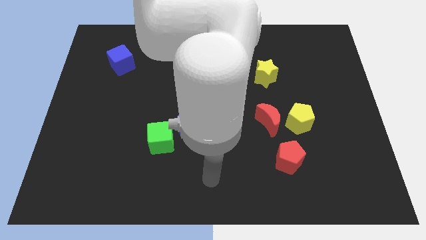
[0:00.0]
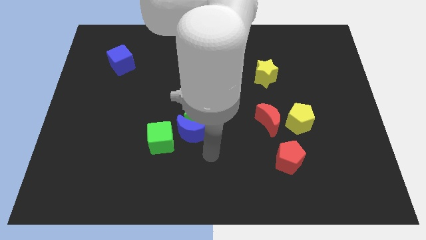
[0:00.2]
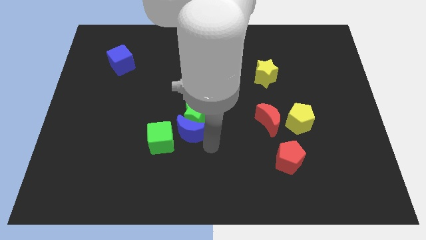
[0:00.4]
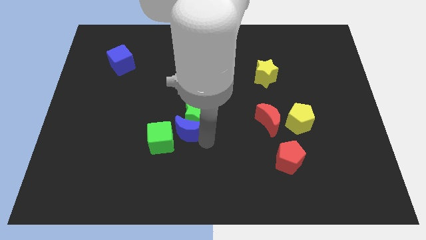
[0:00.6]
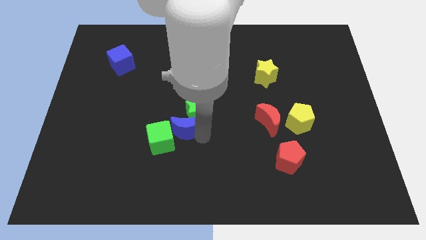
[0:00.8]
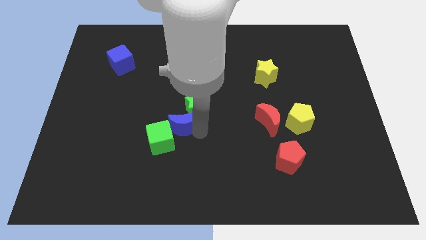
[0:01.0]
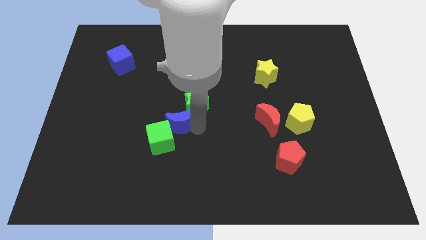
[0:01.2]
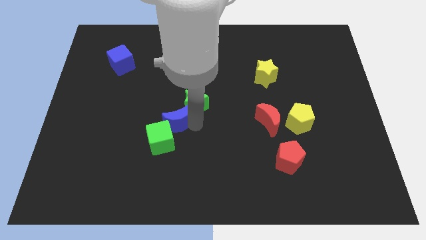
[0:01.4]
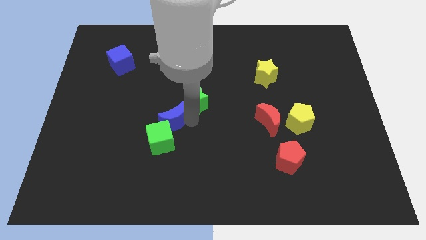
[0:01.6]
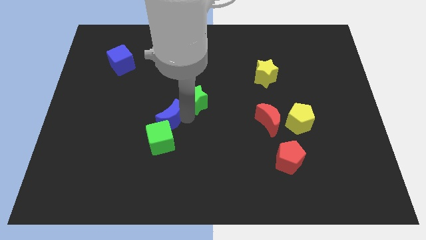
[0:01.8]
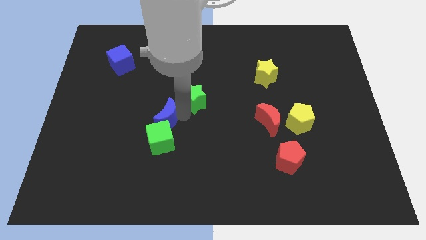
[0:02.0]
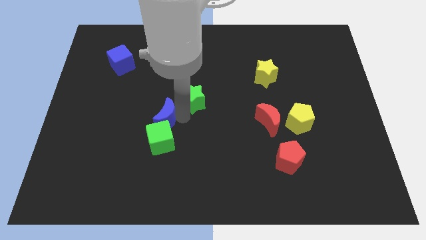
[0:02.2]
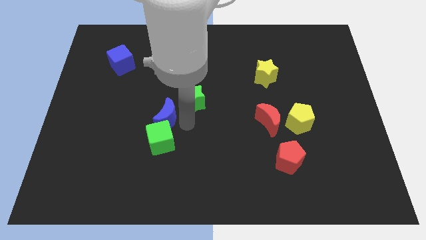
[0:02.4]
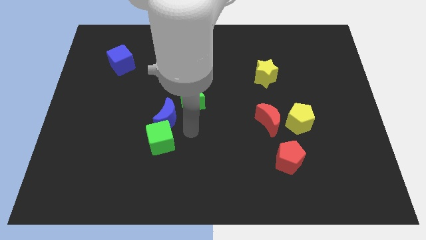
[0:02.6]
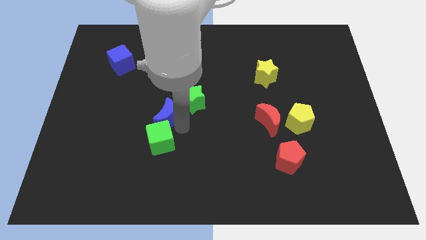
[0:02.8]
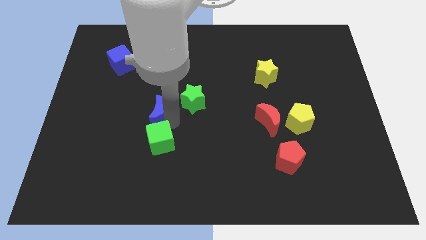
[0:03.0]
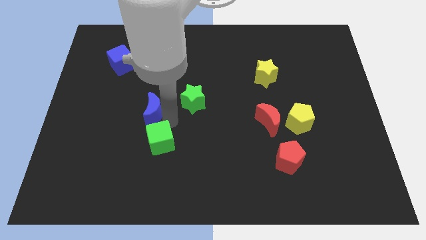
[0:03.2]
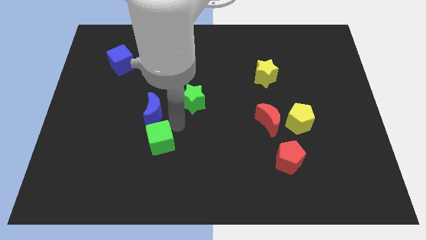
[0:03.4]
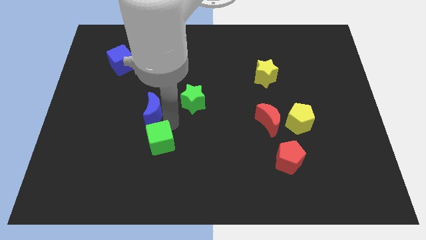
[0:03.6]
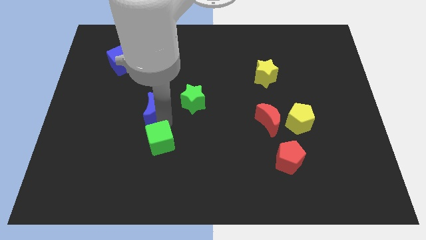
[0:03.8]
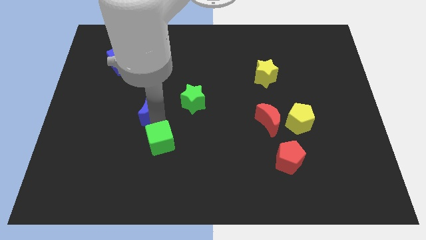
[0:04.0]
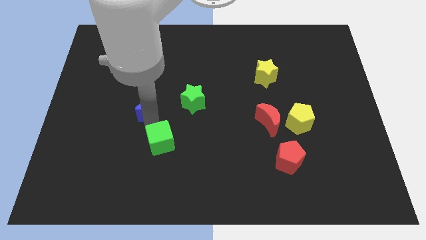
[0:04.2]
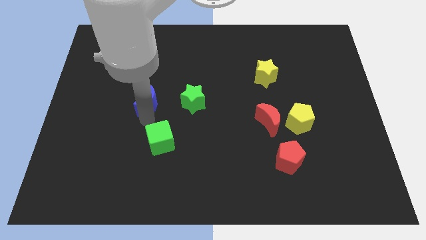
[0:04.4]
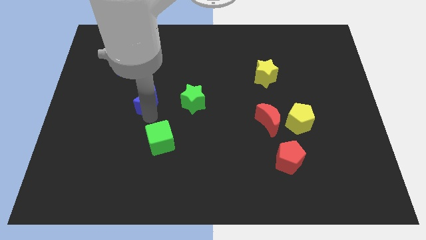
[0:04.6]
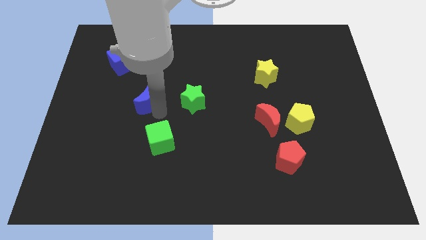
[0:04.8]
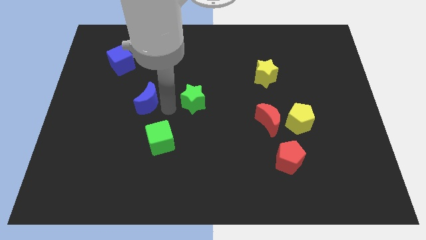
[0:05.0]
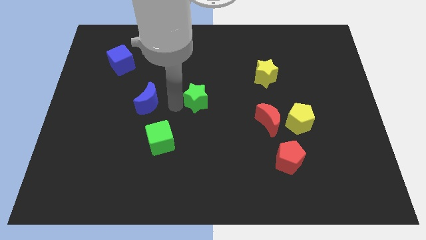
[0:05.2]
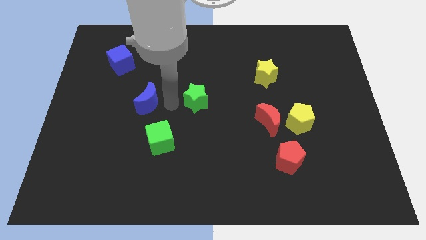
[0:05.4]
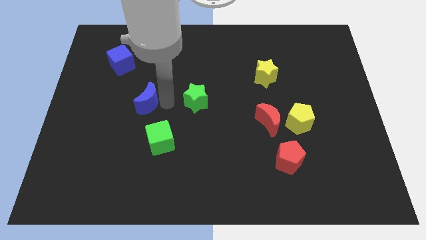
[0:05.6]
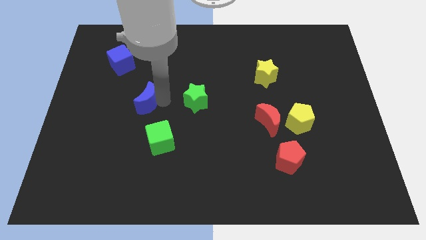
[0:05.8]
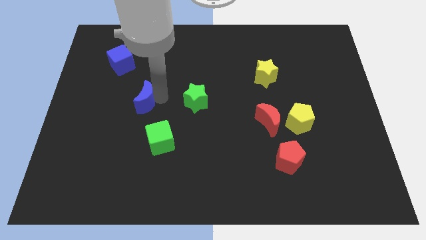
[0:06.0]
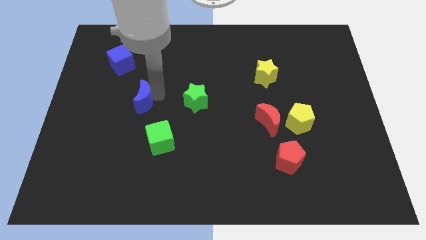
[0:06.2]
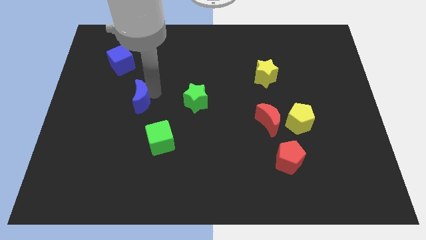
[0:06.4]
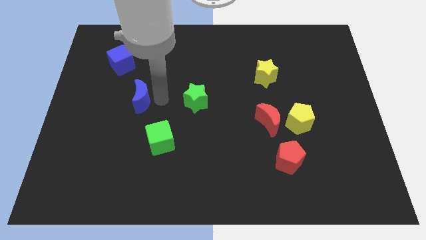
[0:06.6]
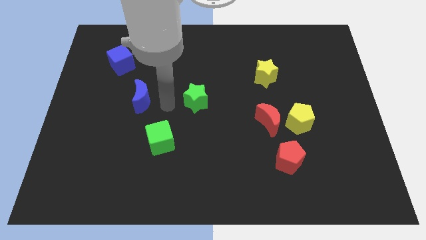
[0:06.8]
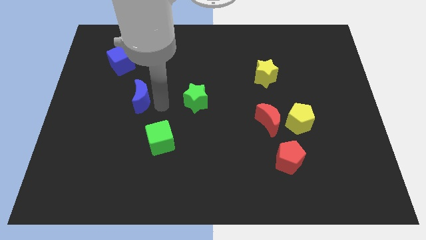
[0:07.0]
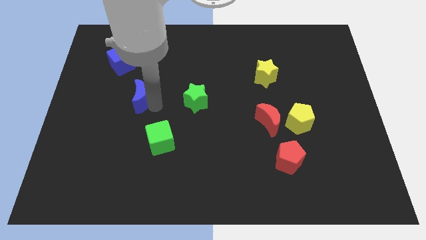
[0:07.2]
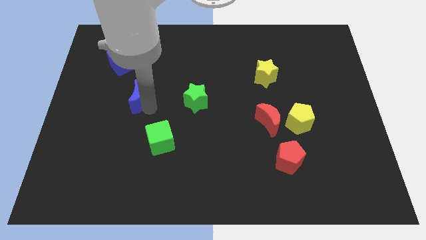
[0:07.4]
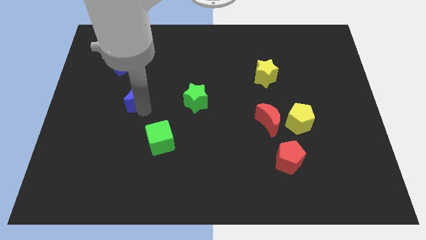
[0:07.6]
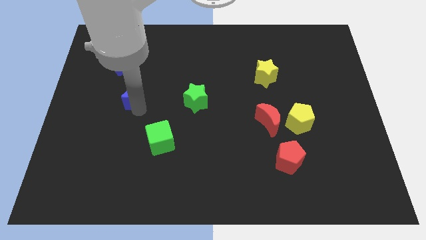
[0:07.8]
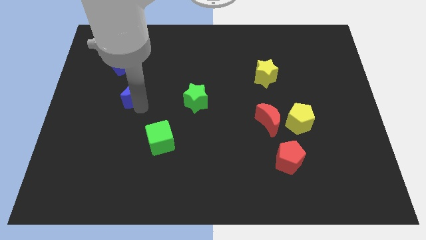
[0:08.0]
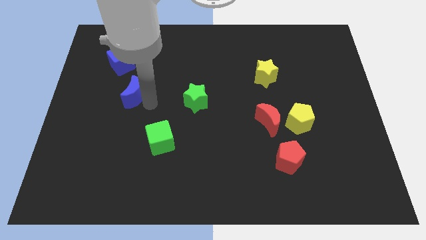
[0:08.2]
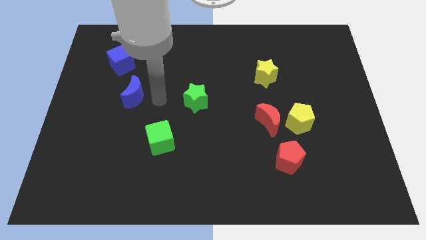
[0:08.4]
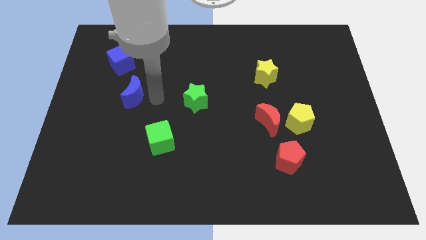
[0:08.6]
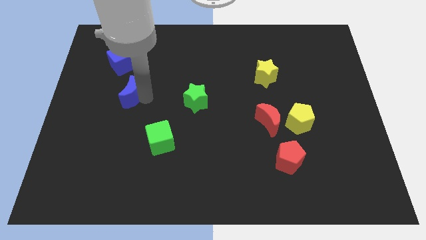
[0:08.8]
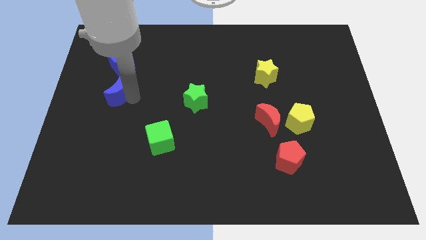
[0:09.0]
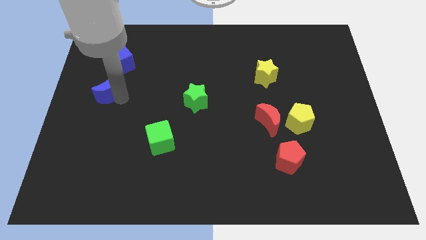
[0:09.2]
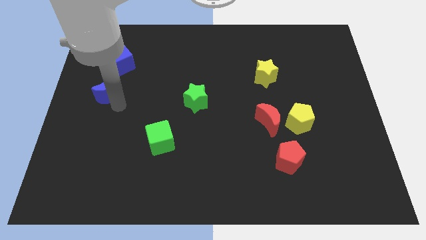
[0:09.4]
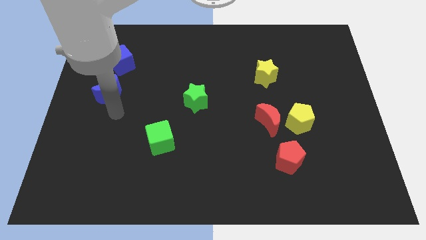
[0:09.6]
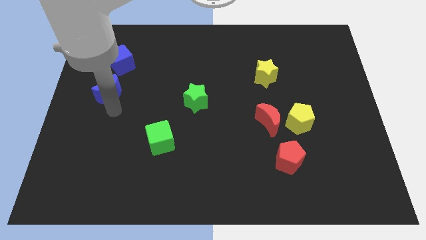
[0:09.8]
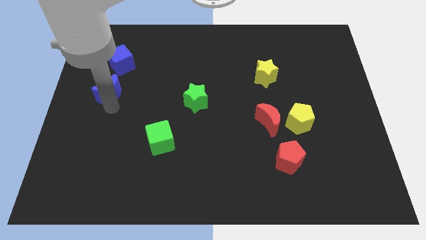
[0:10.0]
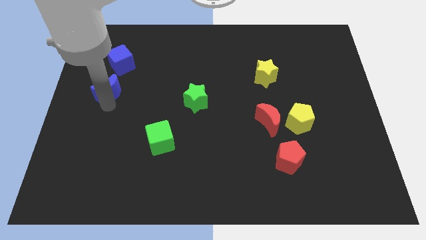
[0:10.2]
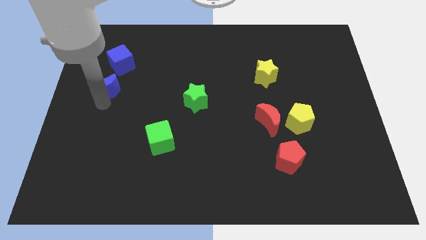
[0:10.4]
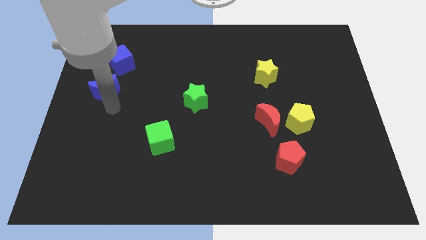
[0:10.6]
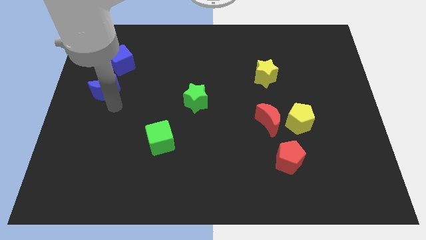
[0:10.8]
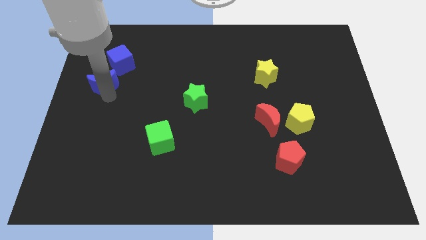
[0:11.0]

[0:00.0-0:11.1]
move the blue moon to the bottom left of the blue cube
